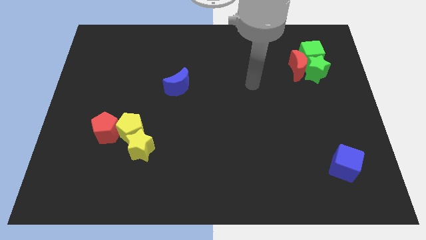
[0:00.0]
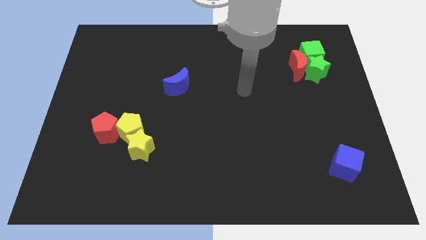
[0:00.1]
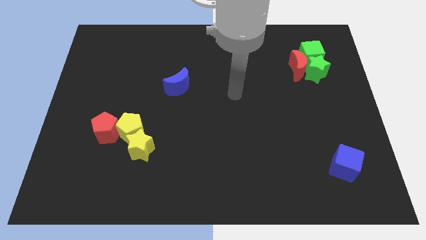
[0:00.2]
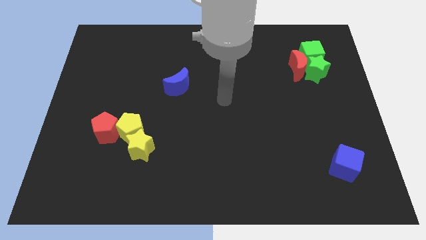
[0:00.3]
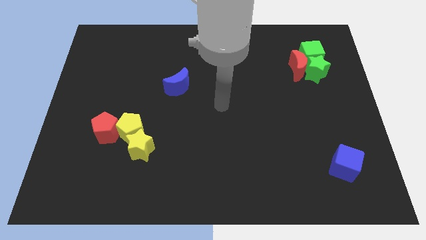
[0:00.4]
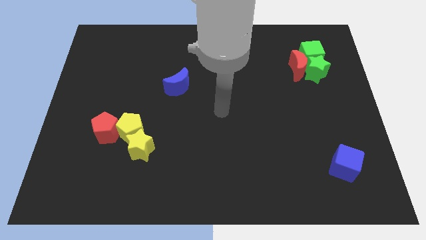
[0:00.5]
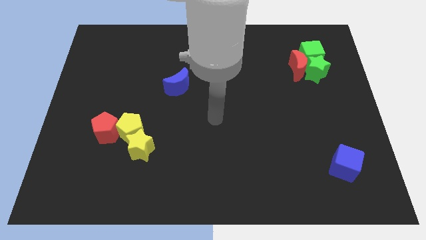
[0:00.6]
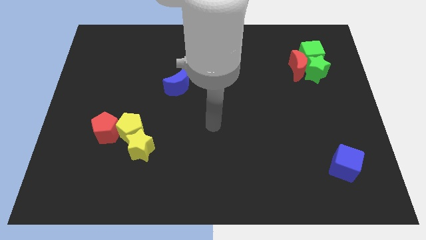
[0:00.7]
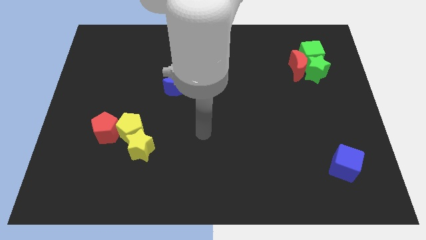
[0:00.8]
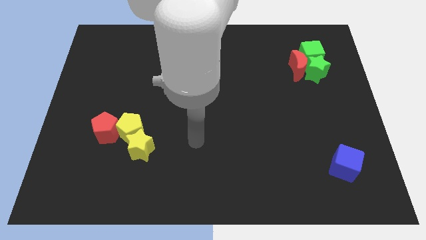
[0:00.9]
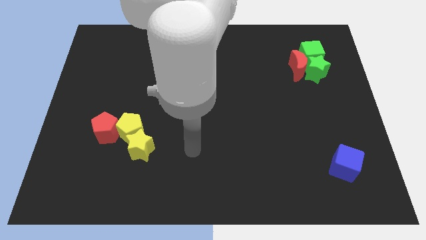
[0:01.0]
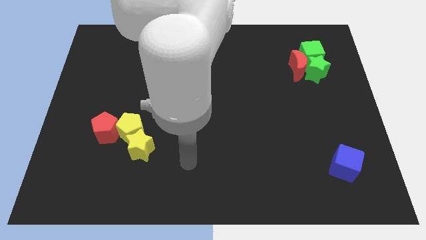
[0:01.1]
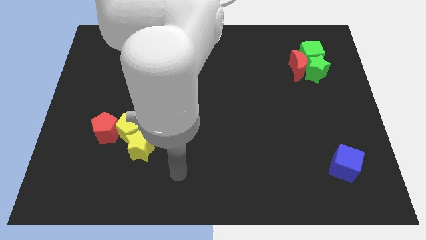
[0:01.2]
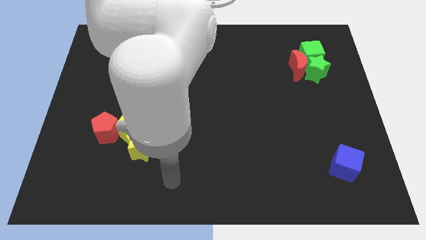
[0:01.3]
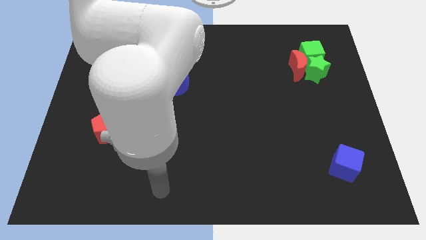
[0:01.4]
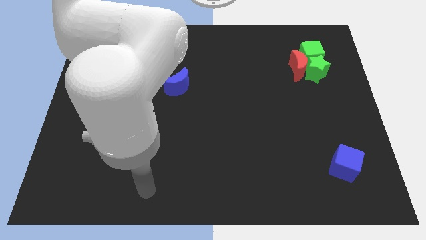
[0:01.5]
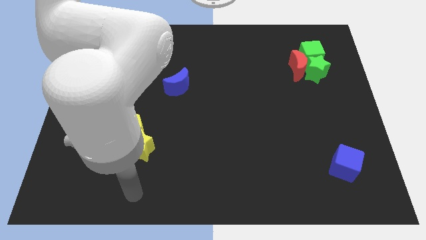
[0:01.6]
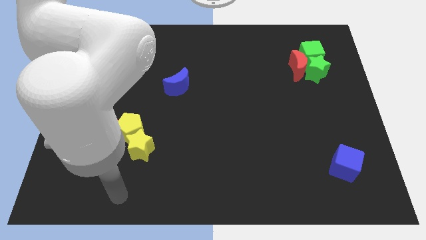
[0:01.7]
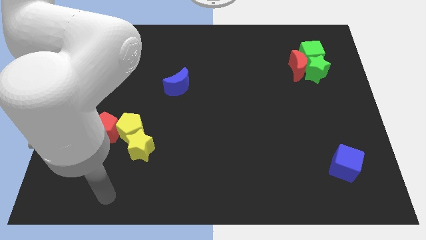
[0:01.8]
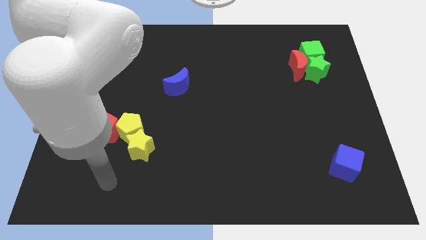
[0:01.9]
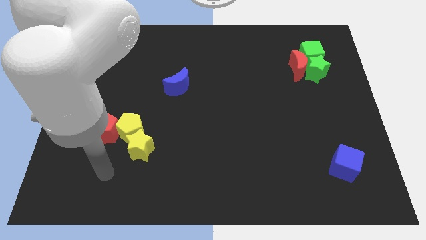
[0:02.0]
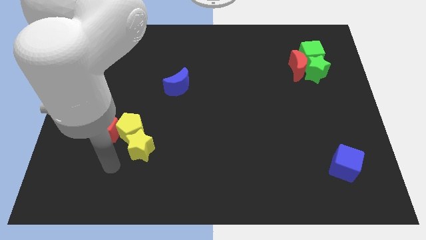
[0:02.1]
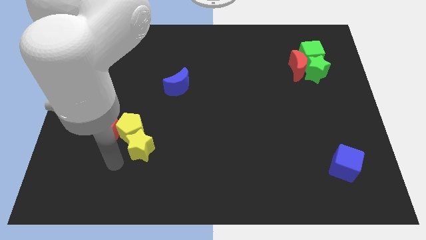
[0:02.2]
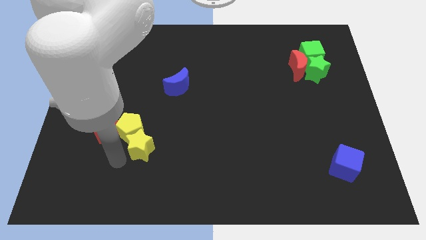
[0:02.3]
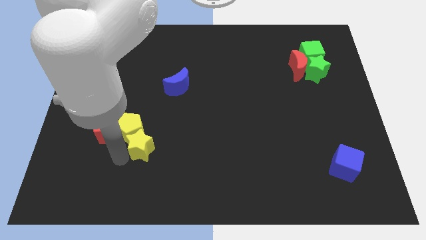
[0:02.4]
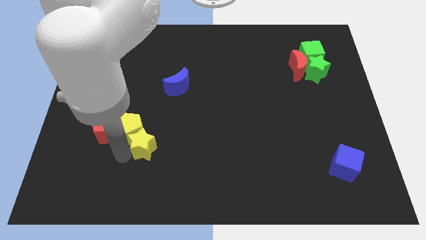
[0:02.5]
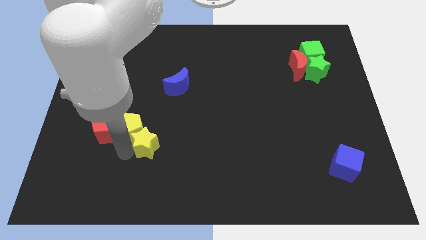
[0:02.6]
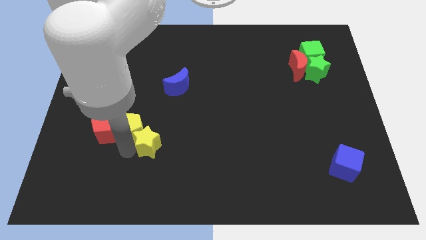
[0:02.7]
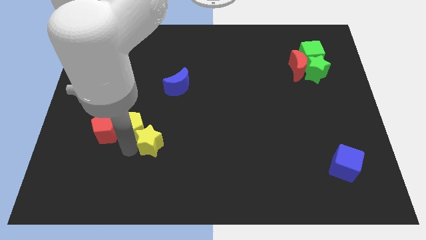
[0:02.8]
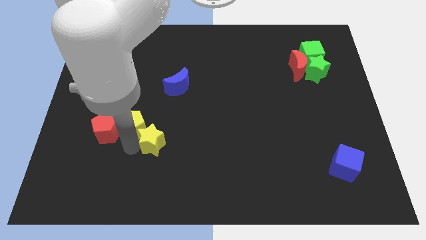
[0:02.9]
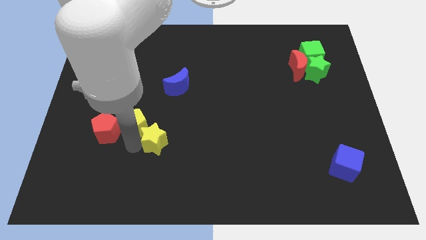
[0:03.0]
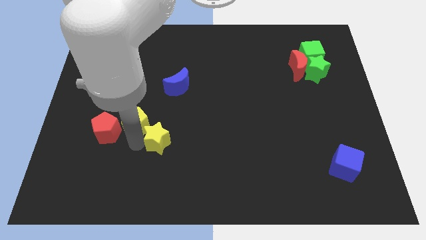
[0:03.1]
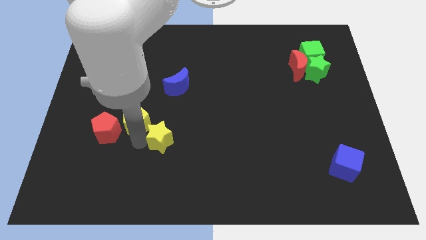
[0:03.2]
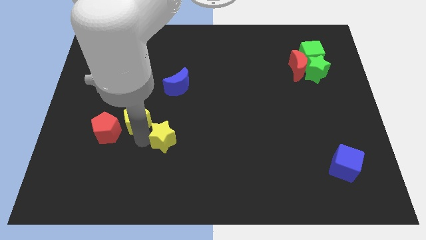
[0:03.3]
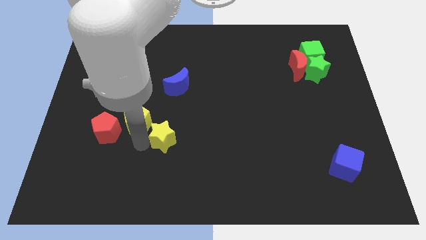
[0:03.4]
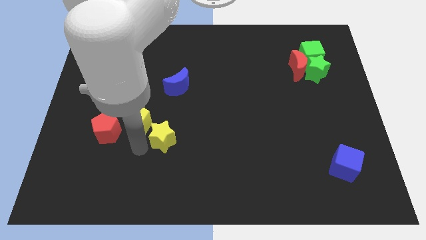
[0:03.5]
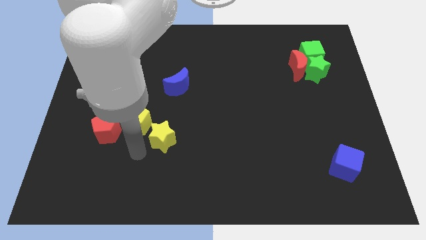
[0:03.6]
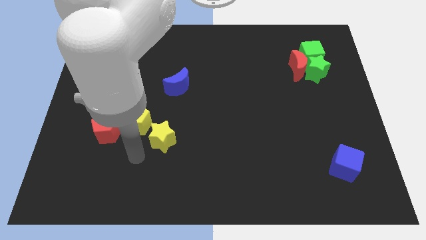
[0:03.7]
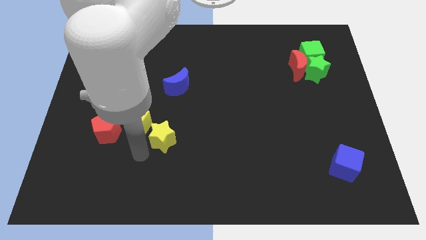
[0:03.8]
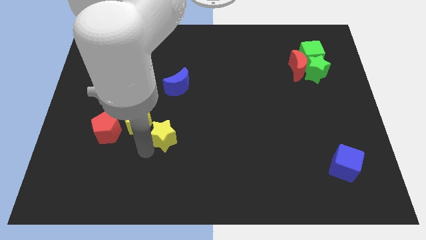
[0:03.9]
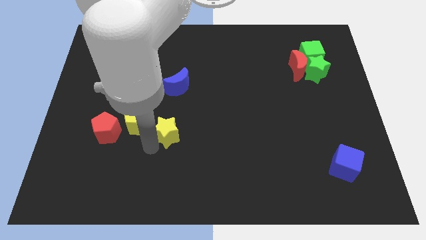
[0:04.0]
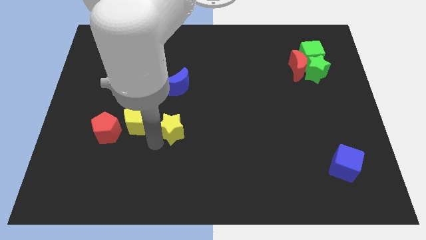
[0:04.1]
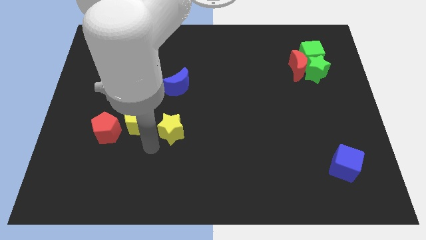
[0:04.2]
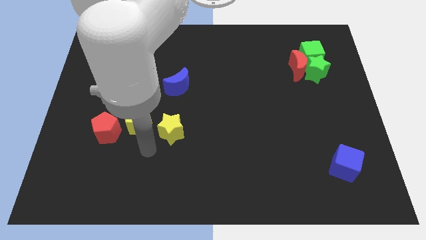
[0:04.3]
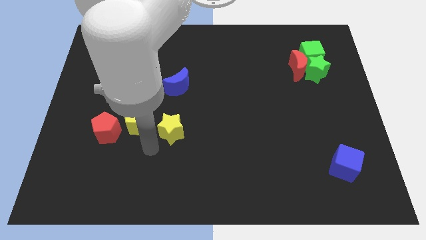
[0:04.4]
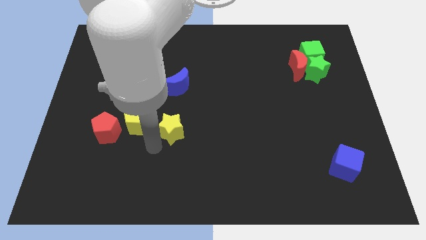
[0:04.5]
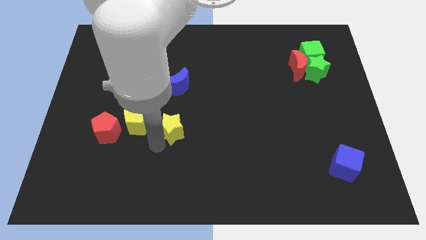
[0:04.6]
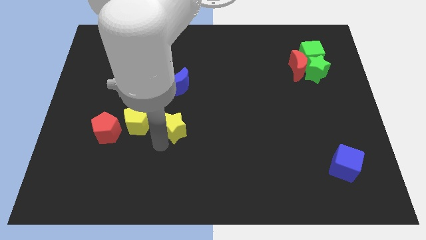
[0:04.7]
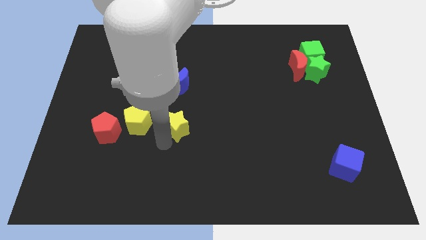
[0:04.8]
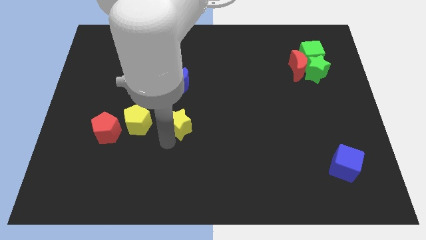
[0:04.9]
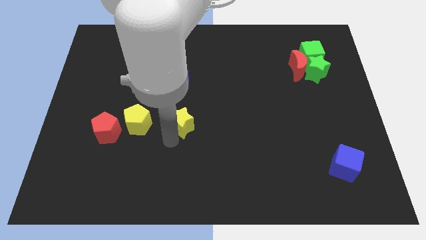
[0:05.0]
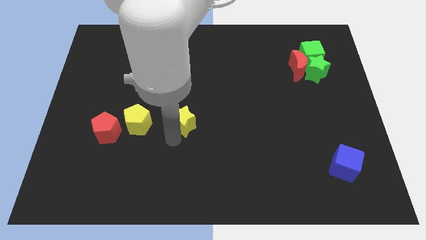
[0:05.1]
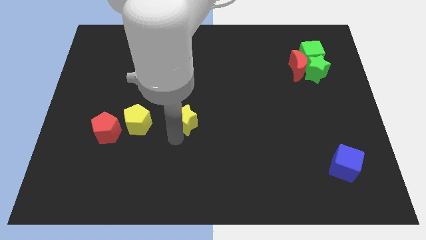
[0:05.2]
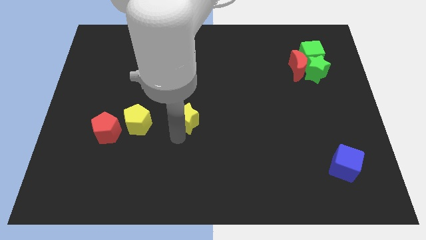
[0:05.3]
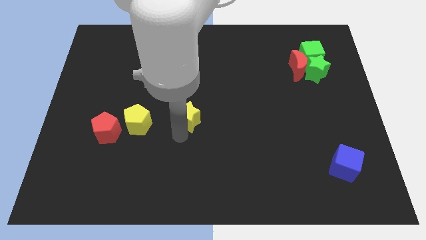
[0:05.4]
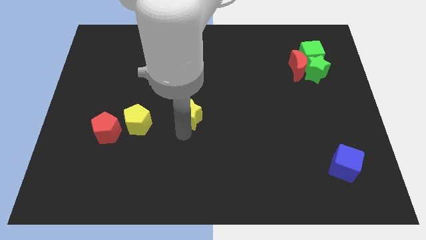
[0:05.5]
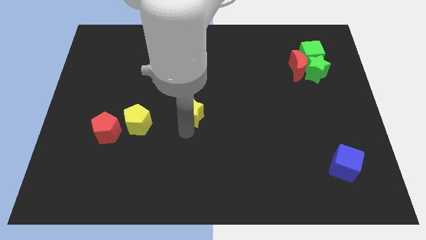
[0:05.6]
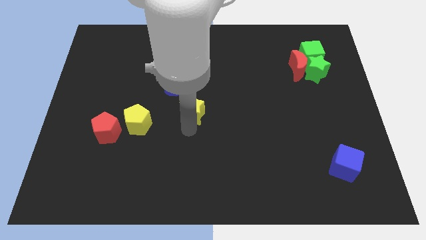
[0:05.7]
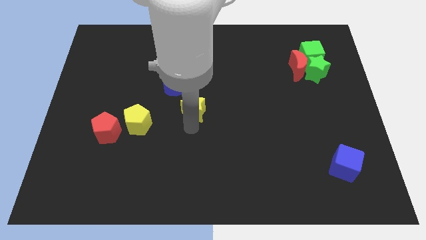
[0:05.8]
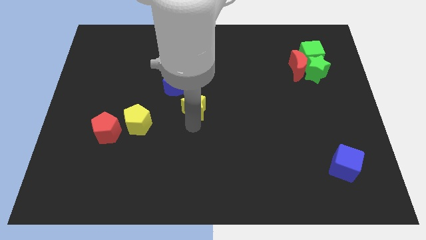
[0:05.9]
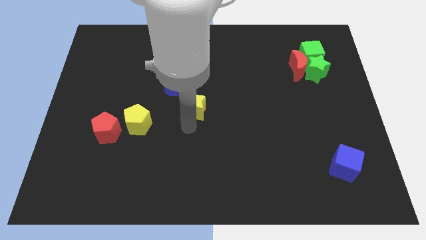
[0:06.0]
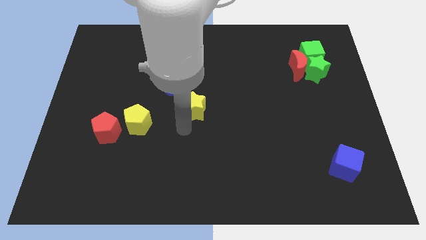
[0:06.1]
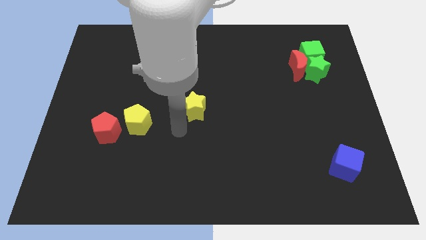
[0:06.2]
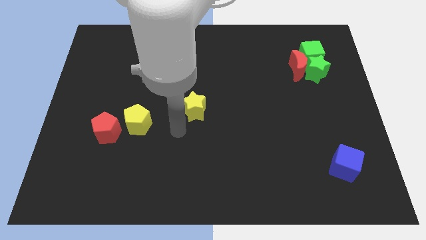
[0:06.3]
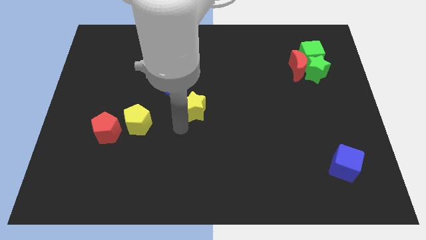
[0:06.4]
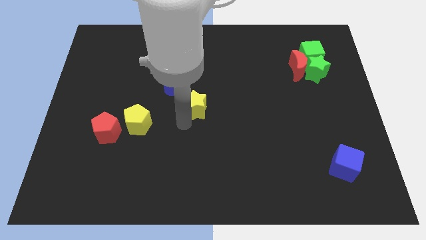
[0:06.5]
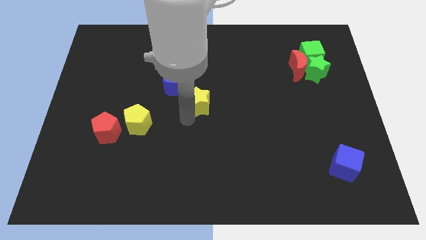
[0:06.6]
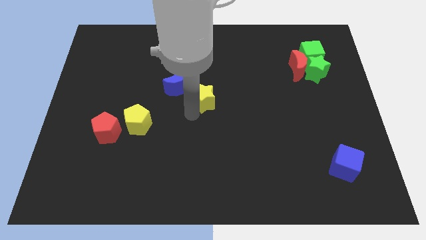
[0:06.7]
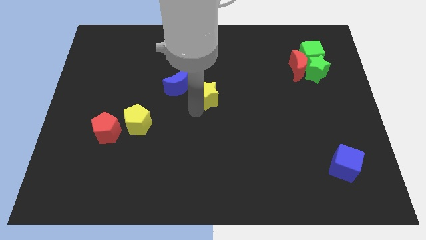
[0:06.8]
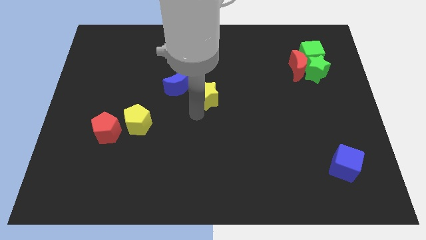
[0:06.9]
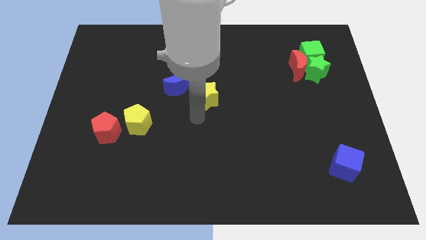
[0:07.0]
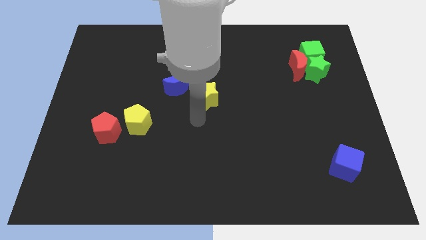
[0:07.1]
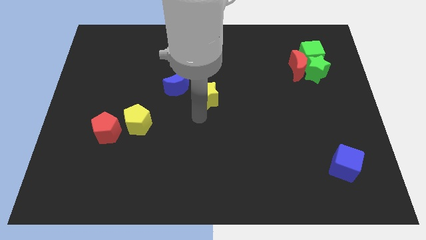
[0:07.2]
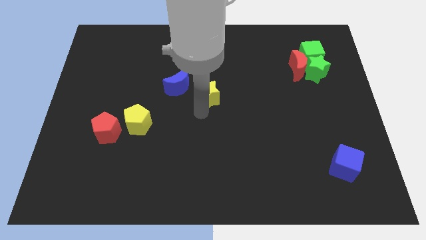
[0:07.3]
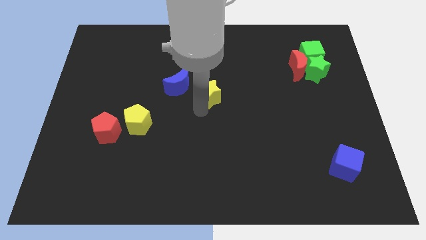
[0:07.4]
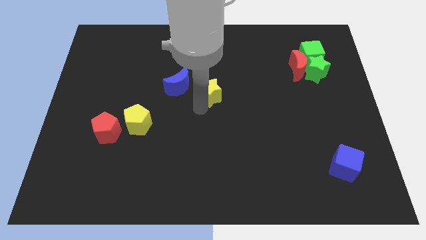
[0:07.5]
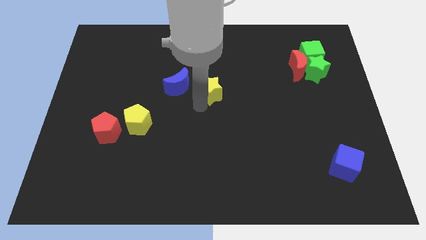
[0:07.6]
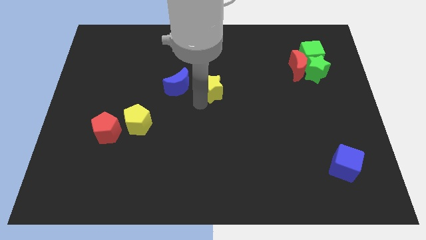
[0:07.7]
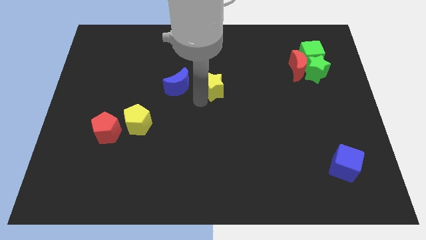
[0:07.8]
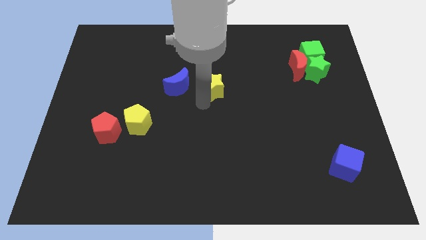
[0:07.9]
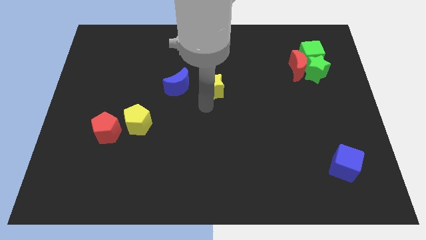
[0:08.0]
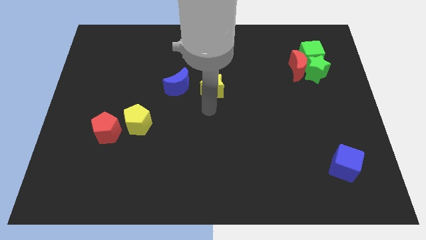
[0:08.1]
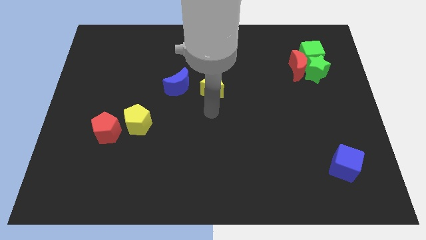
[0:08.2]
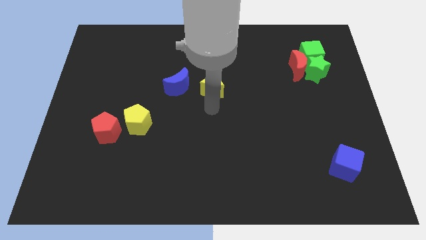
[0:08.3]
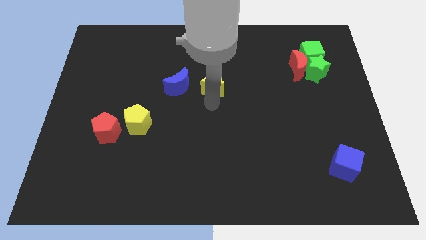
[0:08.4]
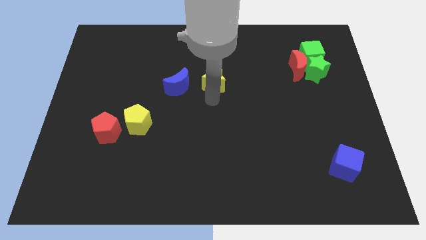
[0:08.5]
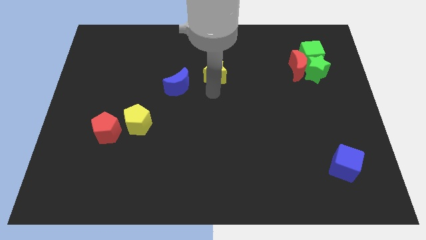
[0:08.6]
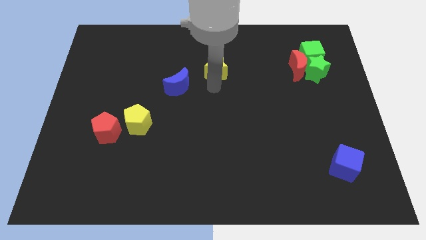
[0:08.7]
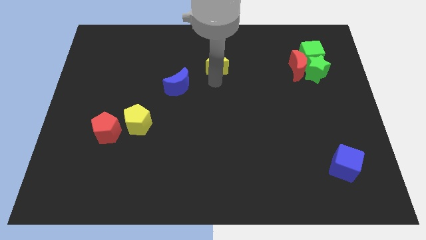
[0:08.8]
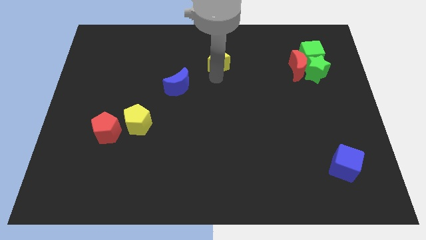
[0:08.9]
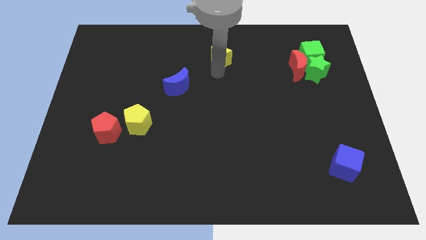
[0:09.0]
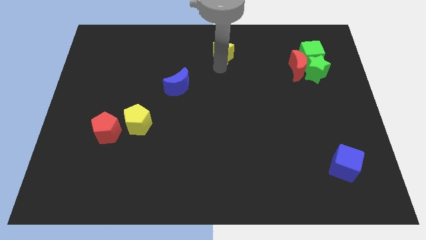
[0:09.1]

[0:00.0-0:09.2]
put the yellow star to the top side
